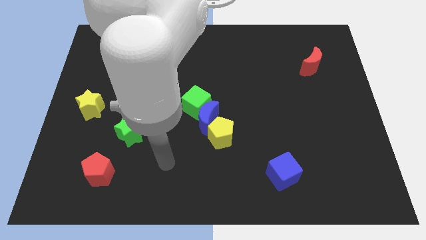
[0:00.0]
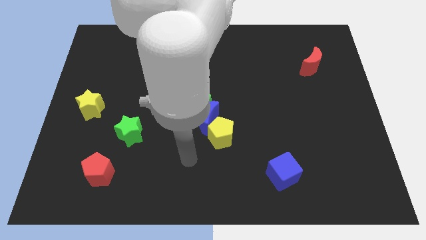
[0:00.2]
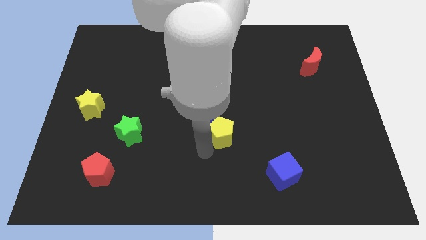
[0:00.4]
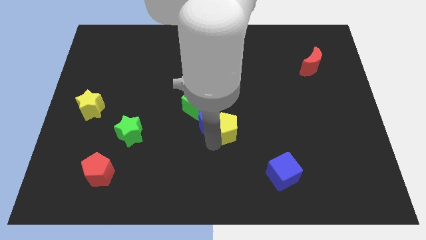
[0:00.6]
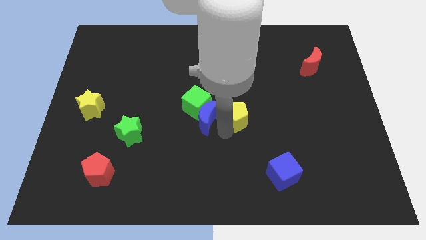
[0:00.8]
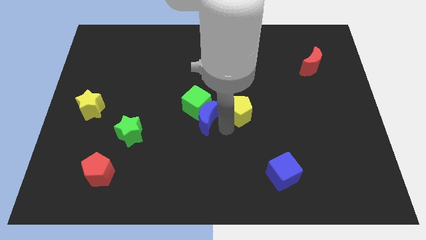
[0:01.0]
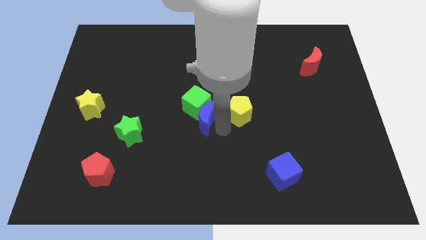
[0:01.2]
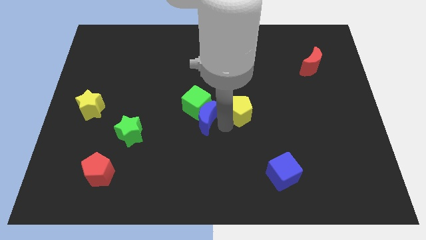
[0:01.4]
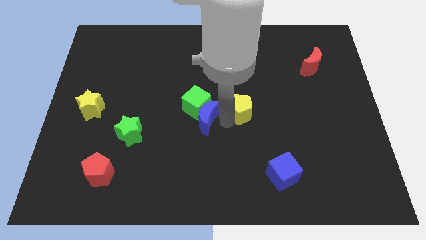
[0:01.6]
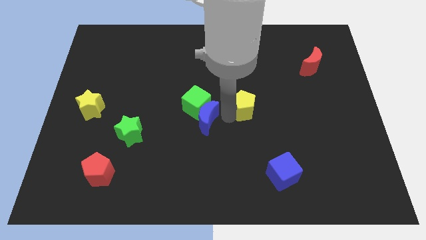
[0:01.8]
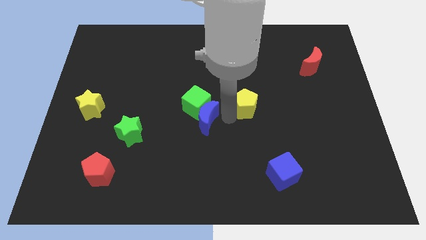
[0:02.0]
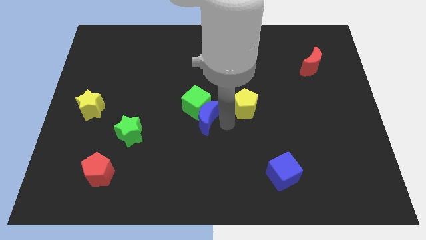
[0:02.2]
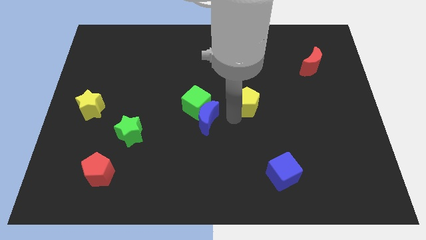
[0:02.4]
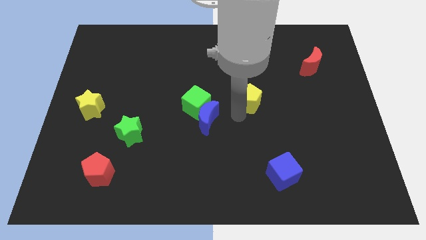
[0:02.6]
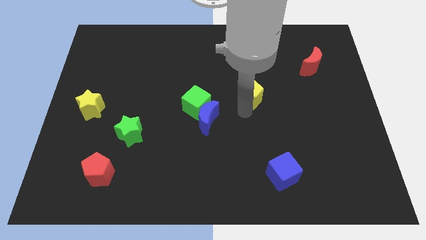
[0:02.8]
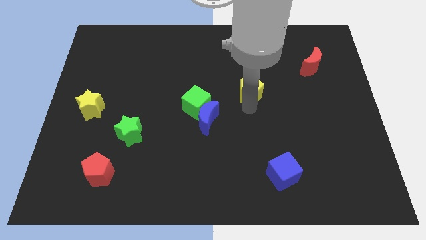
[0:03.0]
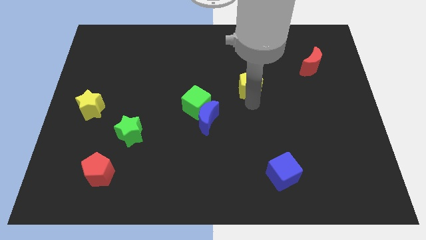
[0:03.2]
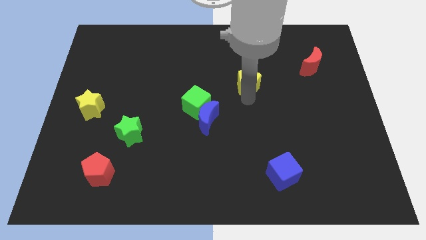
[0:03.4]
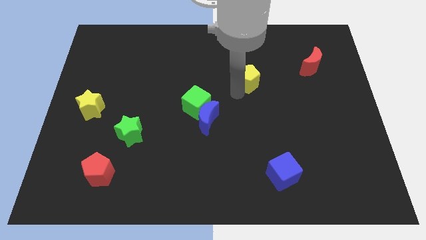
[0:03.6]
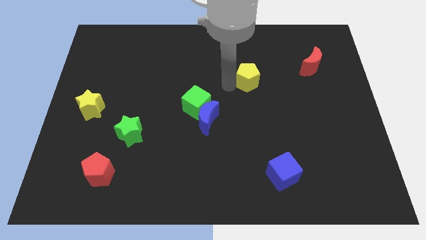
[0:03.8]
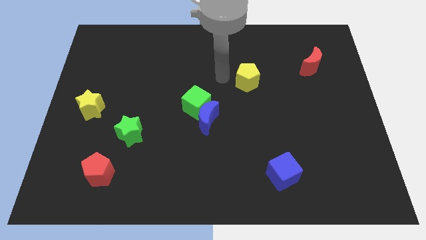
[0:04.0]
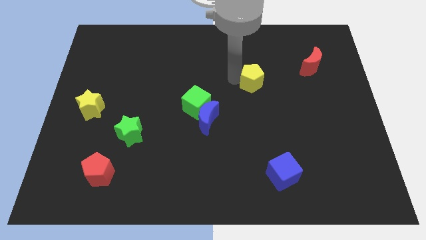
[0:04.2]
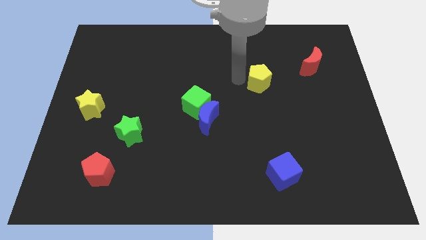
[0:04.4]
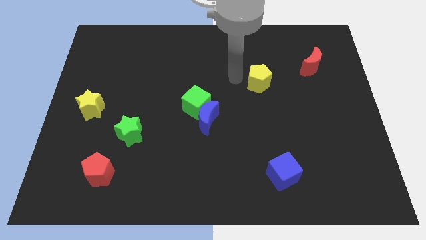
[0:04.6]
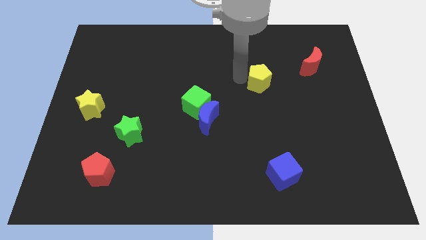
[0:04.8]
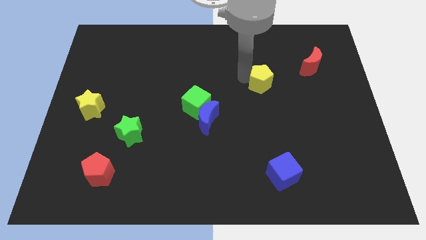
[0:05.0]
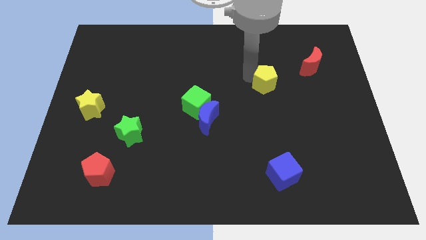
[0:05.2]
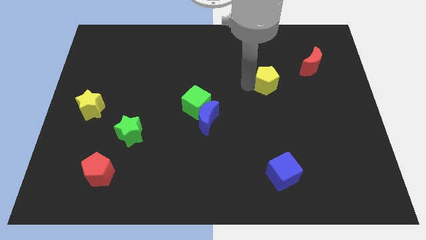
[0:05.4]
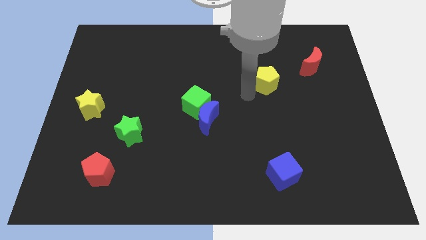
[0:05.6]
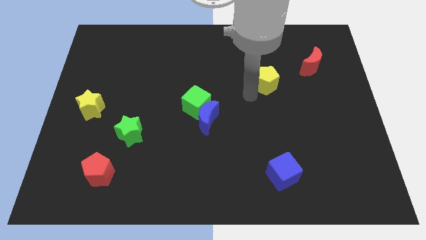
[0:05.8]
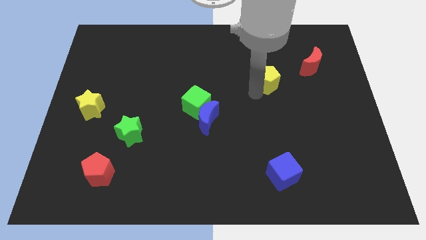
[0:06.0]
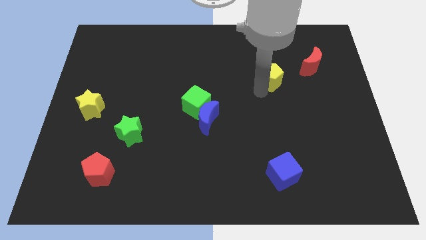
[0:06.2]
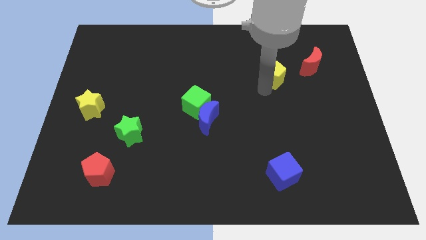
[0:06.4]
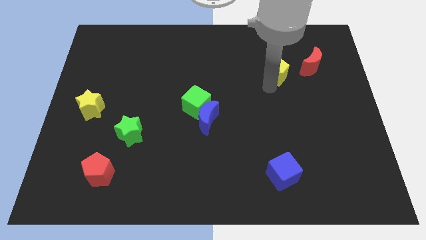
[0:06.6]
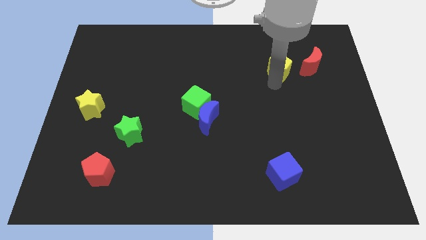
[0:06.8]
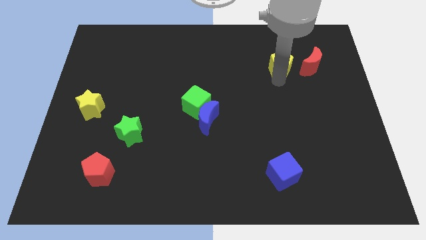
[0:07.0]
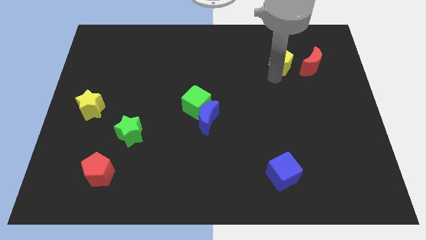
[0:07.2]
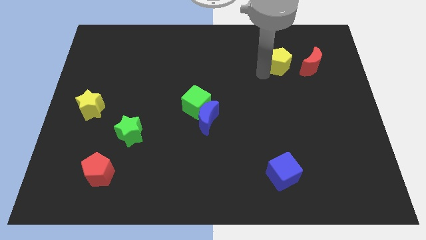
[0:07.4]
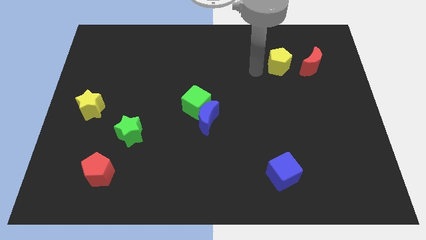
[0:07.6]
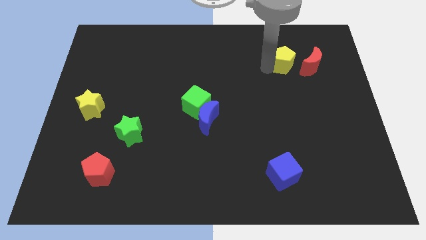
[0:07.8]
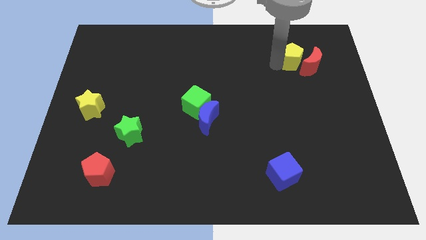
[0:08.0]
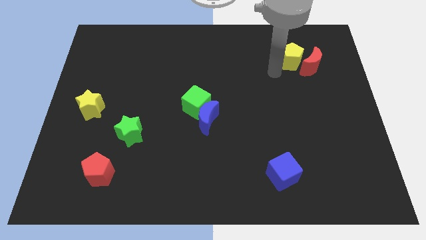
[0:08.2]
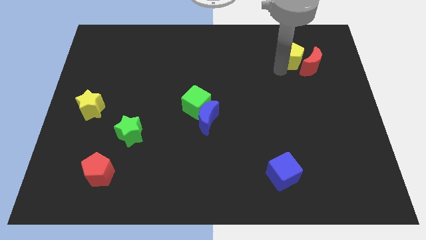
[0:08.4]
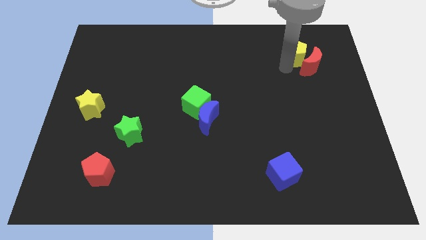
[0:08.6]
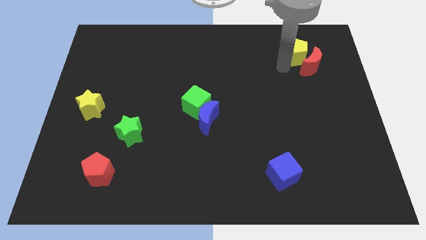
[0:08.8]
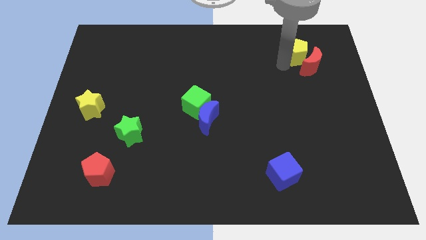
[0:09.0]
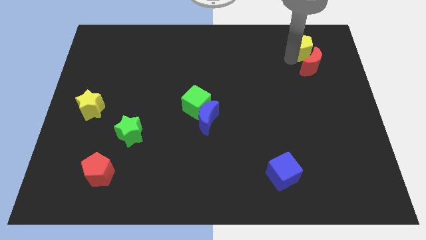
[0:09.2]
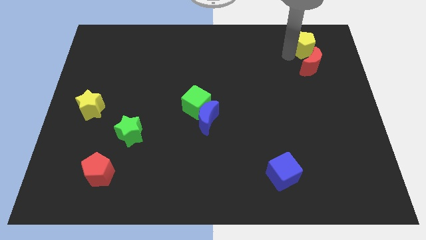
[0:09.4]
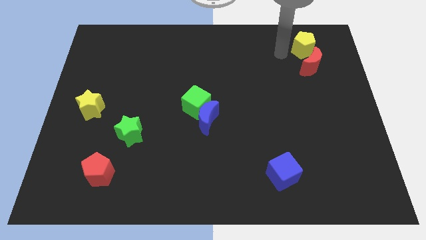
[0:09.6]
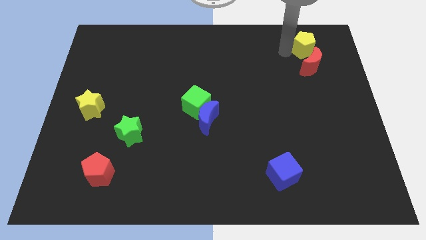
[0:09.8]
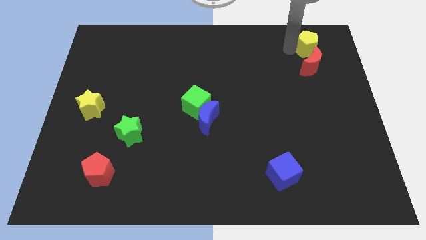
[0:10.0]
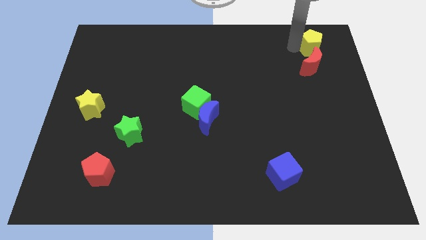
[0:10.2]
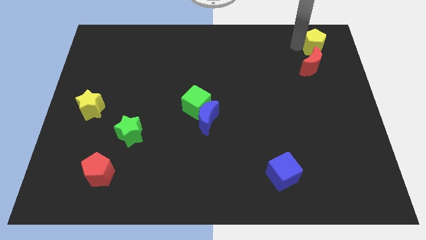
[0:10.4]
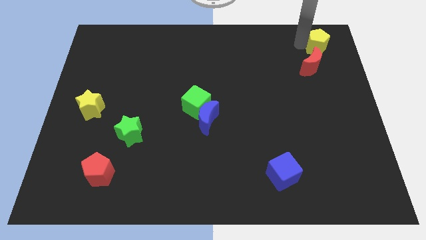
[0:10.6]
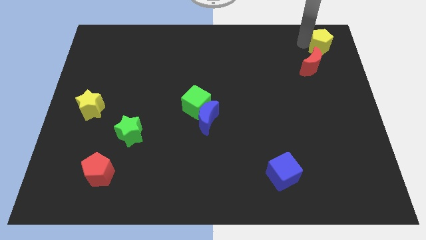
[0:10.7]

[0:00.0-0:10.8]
push the yellow pentagon to the upper right corner

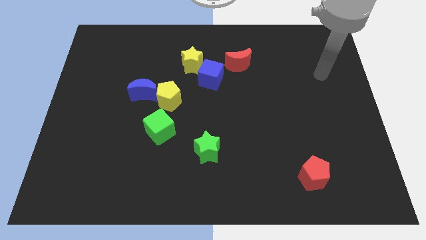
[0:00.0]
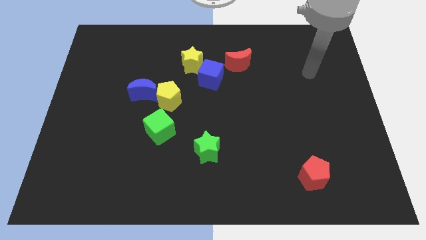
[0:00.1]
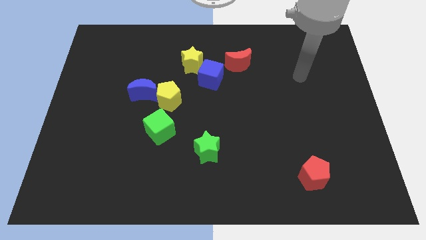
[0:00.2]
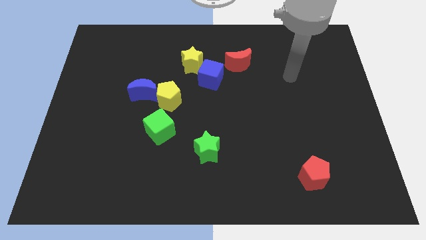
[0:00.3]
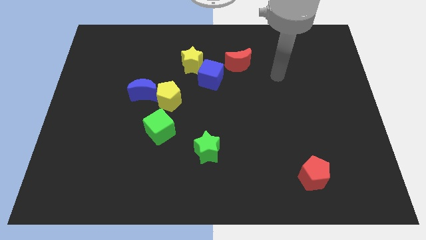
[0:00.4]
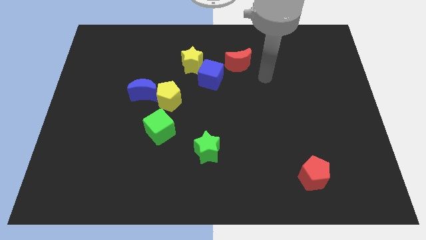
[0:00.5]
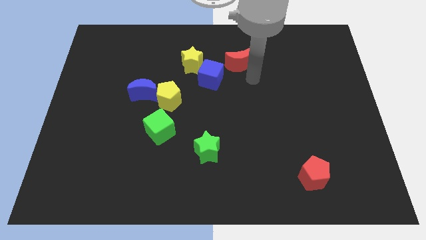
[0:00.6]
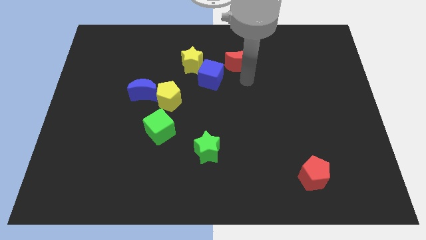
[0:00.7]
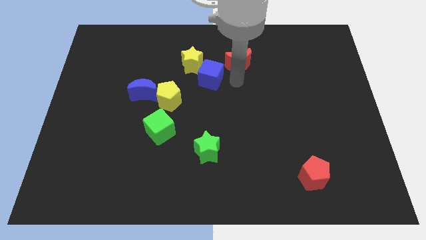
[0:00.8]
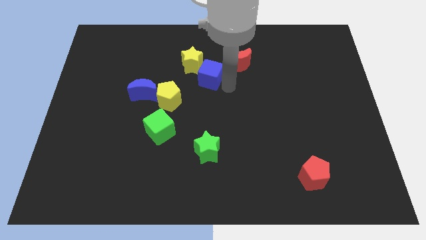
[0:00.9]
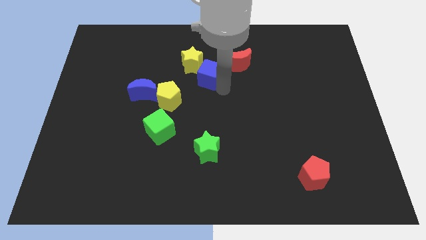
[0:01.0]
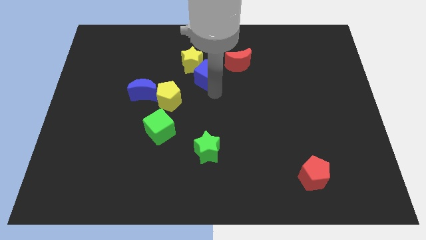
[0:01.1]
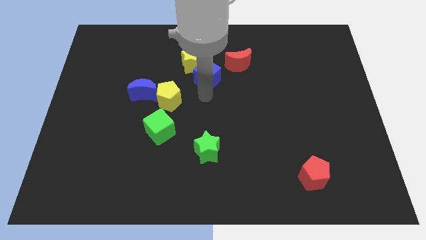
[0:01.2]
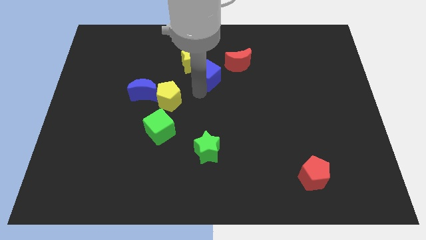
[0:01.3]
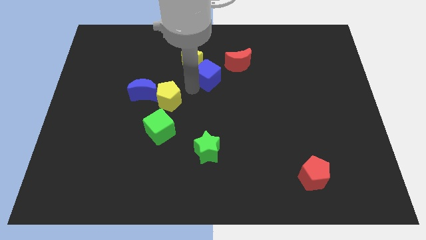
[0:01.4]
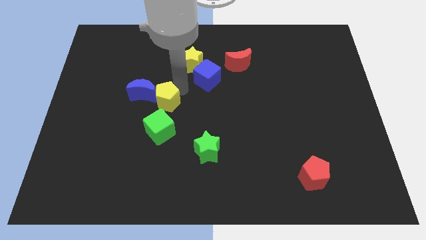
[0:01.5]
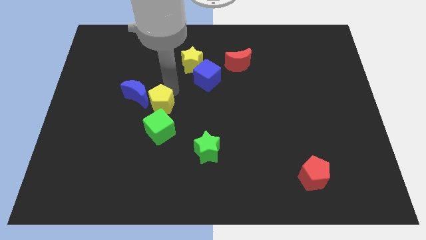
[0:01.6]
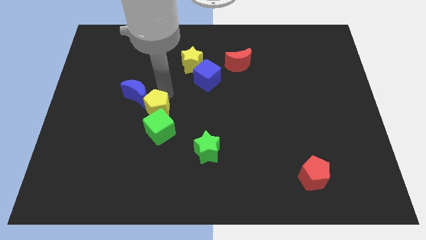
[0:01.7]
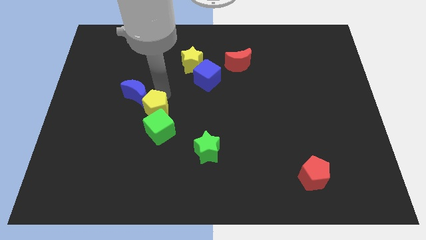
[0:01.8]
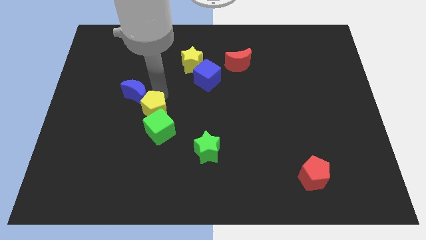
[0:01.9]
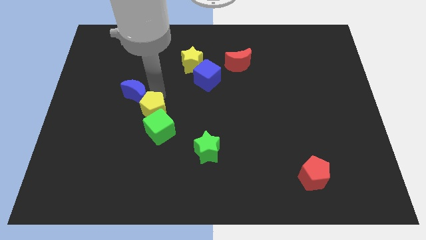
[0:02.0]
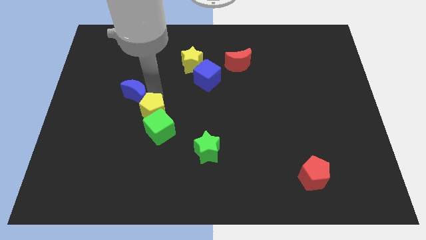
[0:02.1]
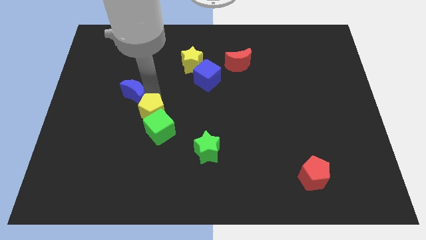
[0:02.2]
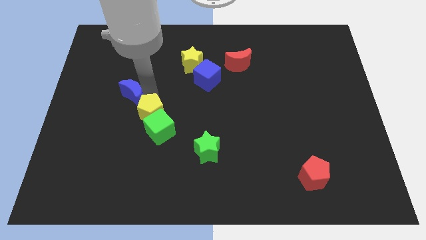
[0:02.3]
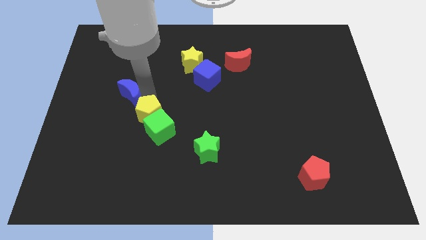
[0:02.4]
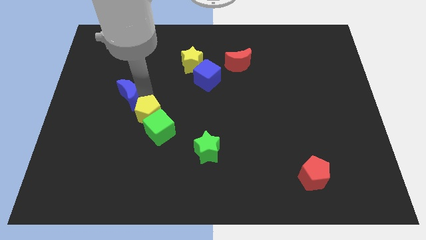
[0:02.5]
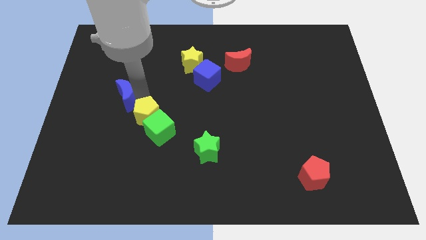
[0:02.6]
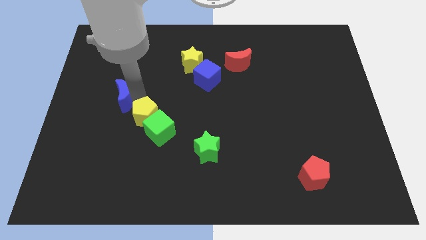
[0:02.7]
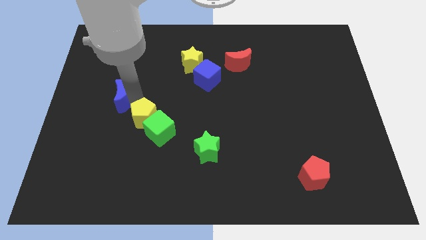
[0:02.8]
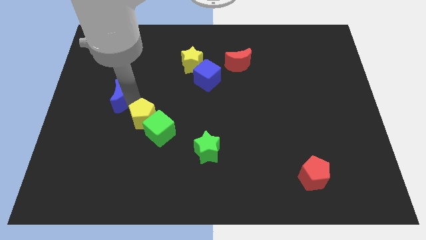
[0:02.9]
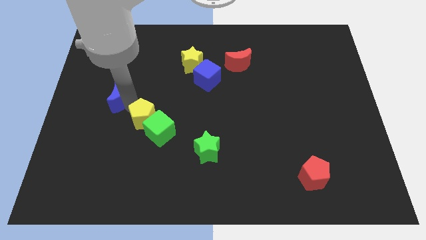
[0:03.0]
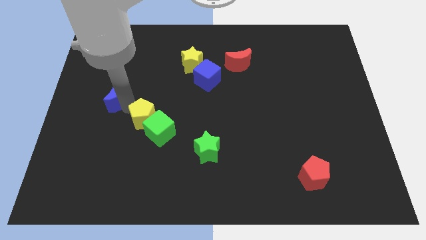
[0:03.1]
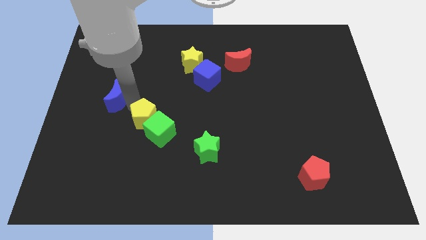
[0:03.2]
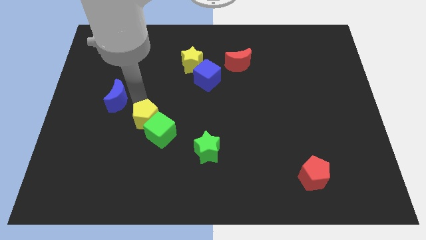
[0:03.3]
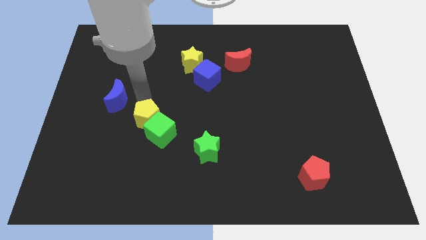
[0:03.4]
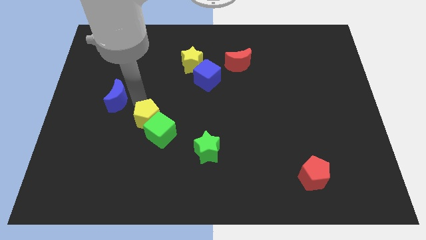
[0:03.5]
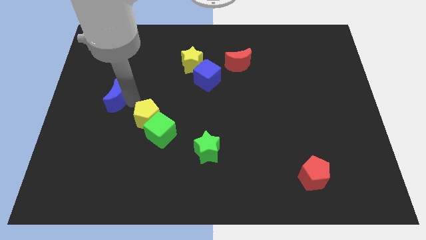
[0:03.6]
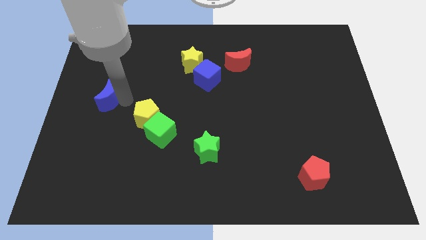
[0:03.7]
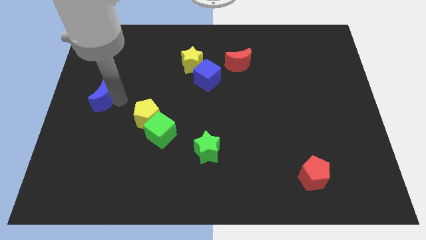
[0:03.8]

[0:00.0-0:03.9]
move the blue moon to the left side of the board
